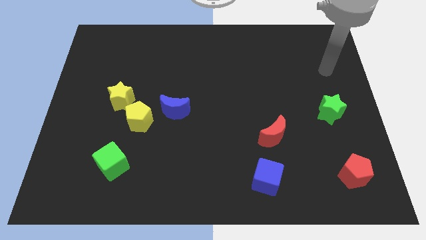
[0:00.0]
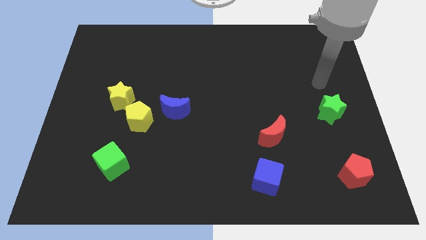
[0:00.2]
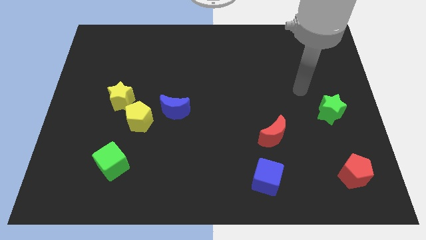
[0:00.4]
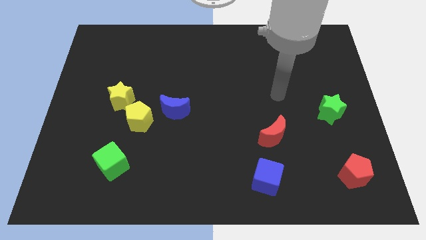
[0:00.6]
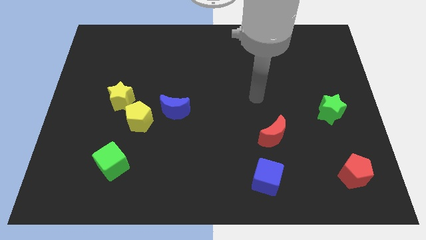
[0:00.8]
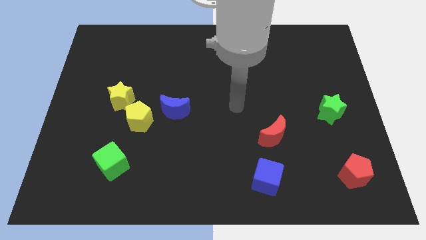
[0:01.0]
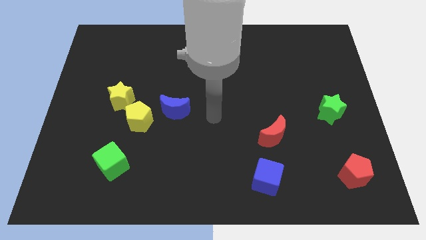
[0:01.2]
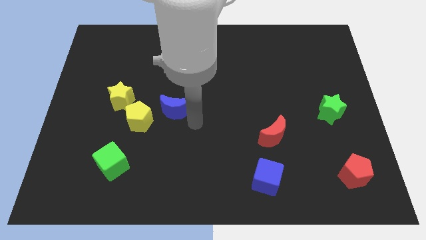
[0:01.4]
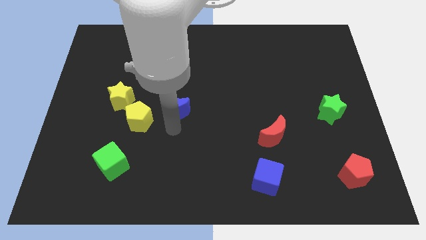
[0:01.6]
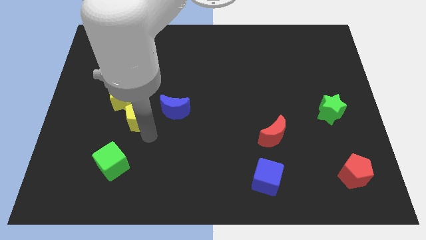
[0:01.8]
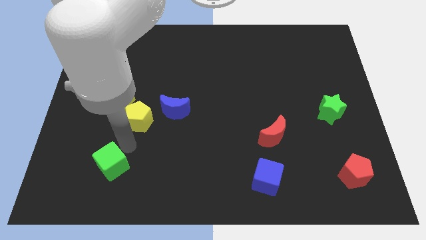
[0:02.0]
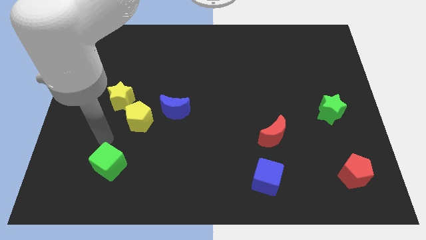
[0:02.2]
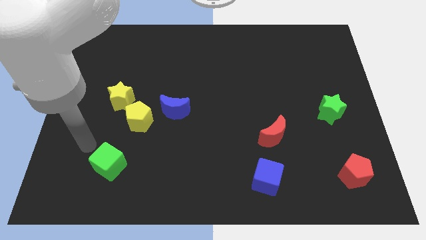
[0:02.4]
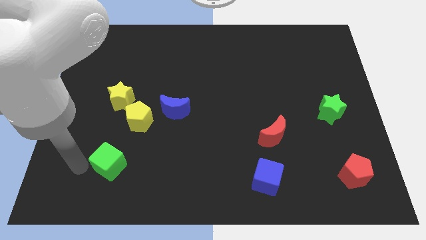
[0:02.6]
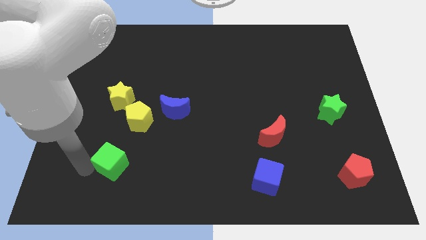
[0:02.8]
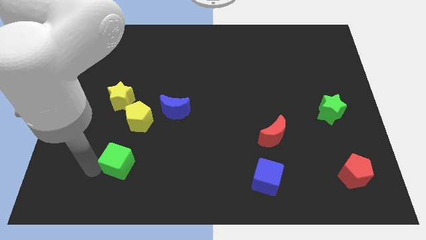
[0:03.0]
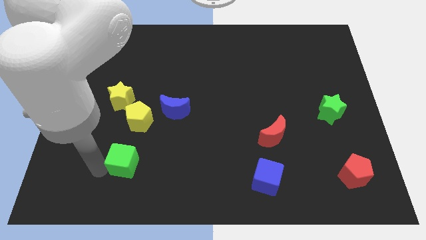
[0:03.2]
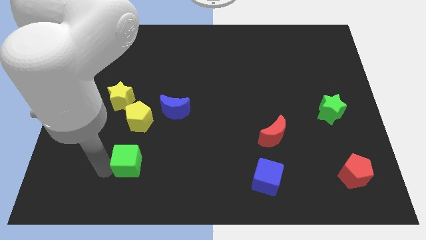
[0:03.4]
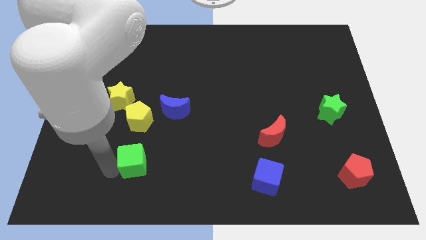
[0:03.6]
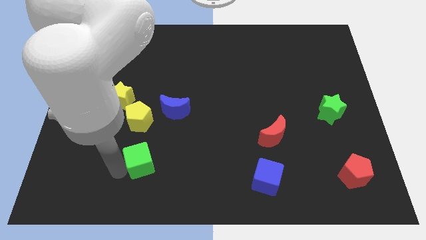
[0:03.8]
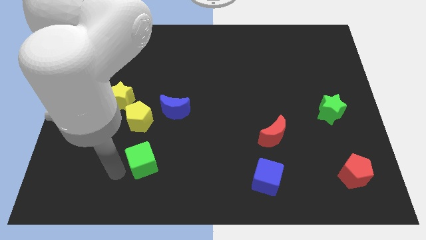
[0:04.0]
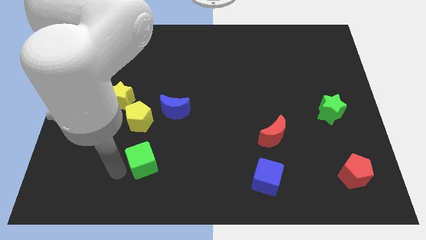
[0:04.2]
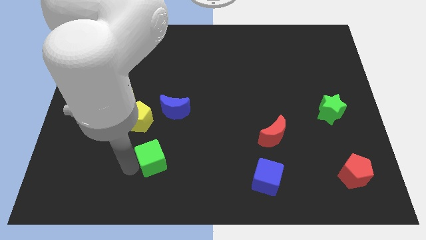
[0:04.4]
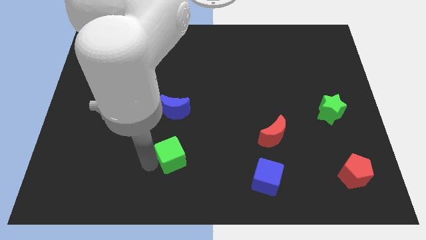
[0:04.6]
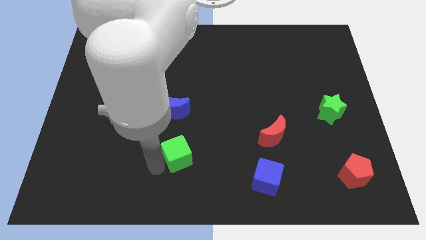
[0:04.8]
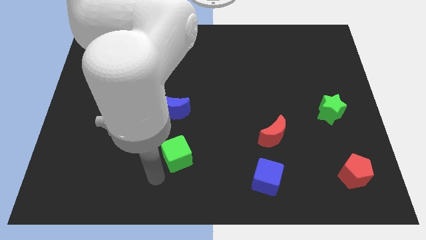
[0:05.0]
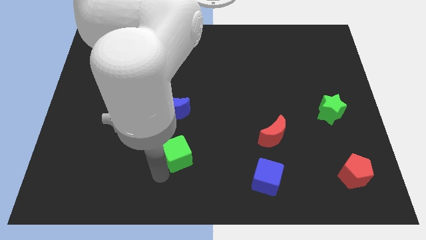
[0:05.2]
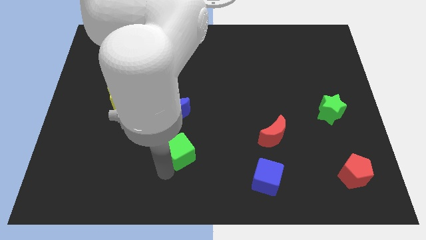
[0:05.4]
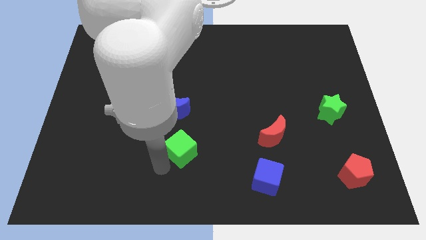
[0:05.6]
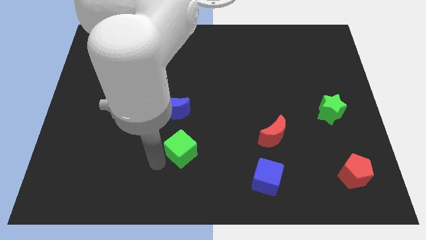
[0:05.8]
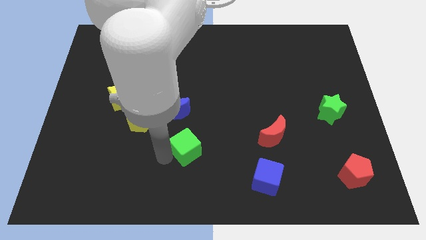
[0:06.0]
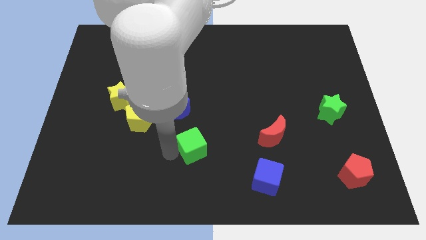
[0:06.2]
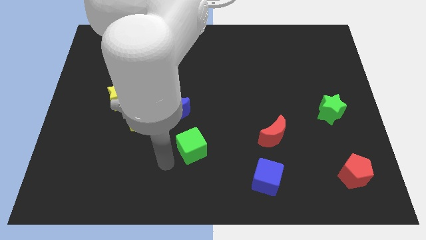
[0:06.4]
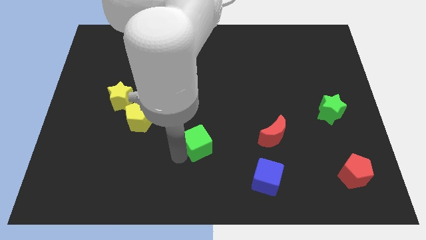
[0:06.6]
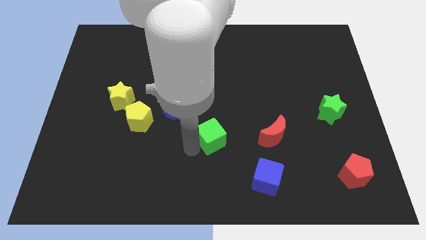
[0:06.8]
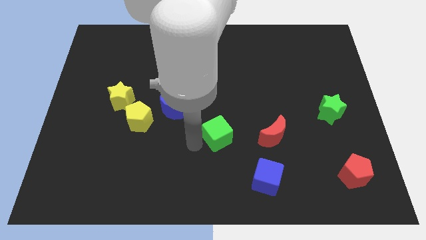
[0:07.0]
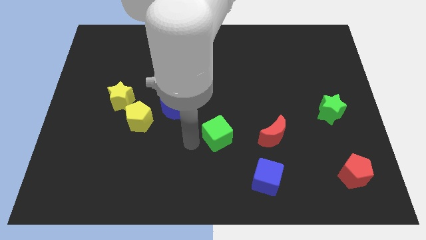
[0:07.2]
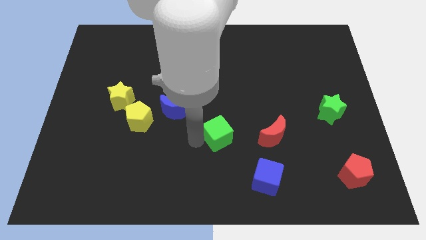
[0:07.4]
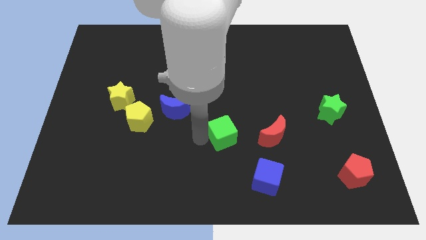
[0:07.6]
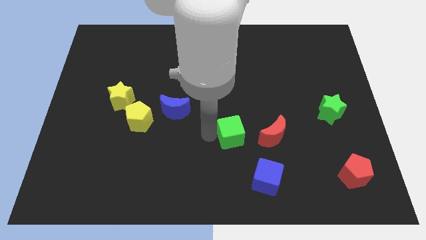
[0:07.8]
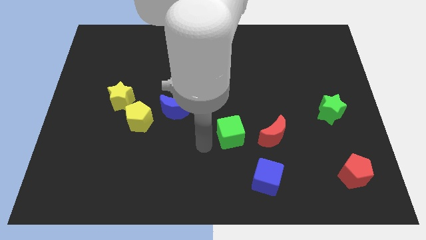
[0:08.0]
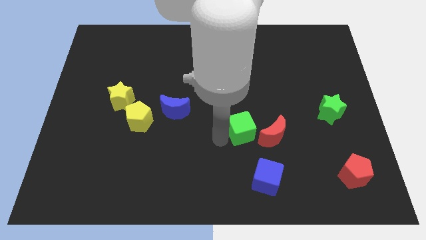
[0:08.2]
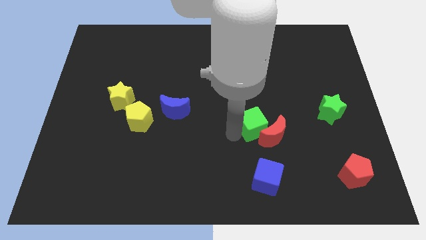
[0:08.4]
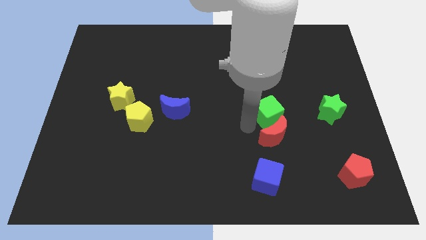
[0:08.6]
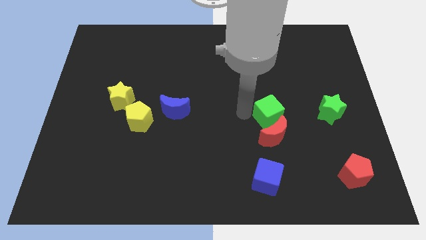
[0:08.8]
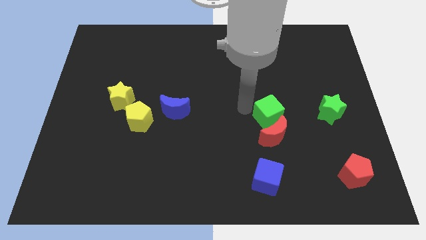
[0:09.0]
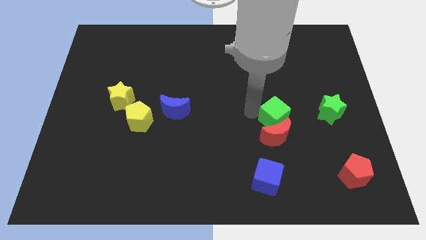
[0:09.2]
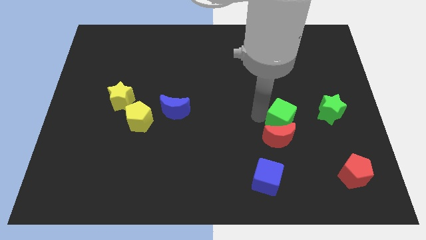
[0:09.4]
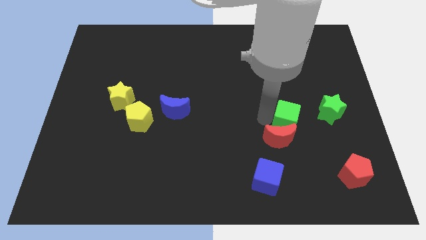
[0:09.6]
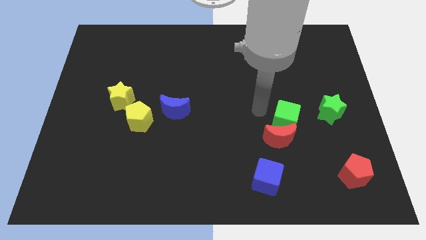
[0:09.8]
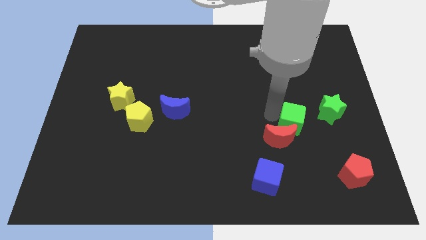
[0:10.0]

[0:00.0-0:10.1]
slide the green cube to the bottom left side of the green star

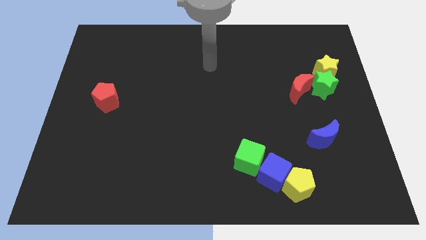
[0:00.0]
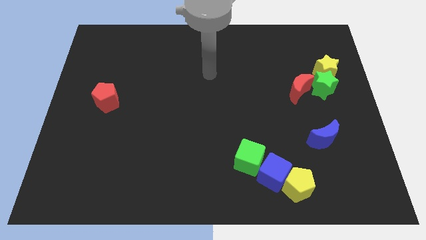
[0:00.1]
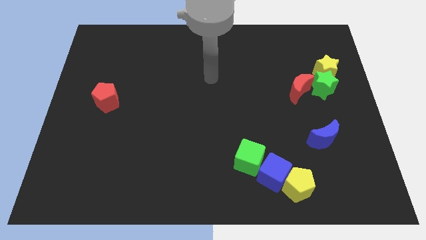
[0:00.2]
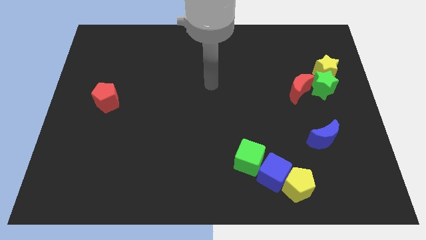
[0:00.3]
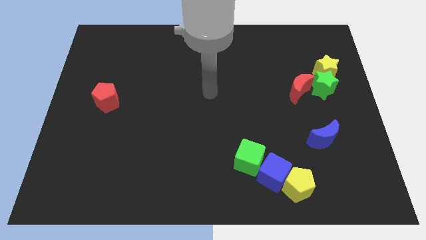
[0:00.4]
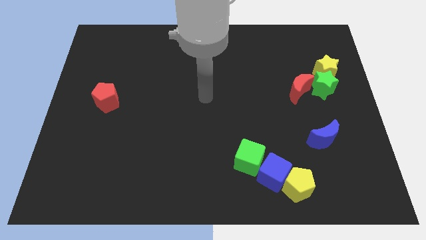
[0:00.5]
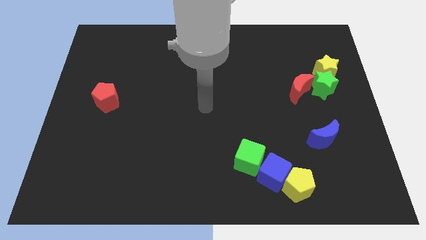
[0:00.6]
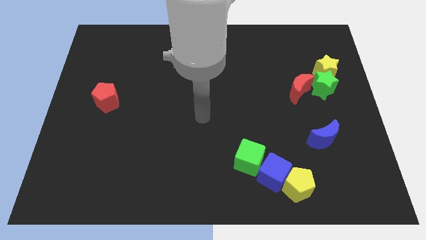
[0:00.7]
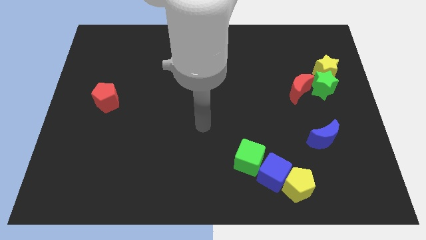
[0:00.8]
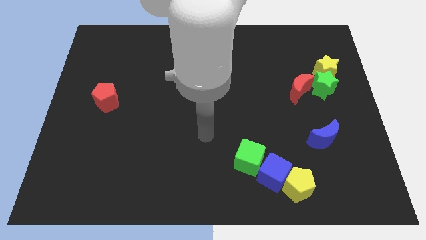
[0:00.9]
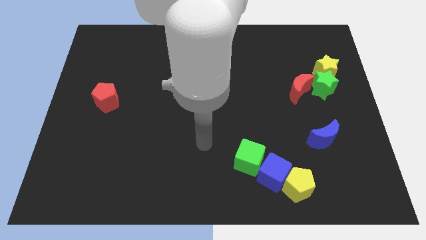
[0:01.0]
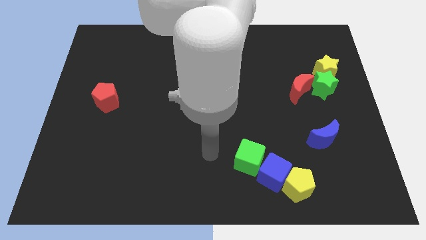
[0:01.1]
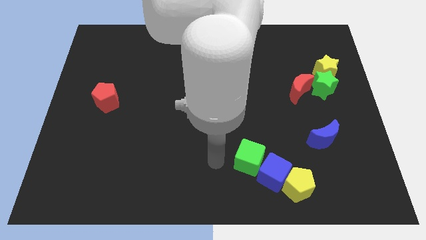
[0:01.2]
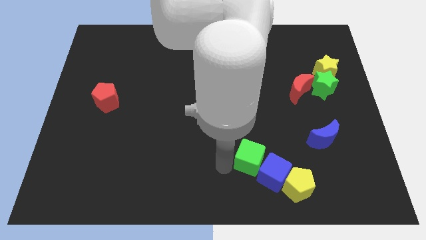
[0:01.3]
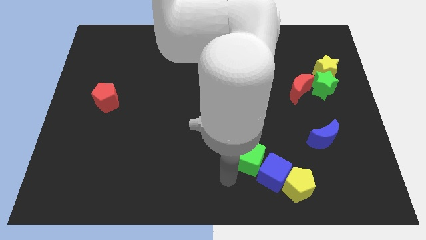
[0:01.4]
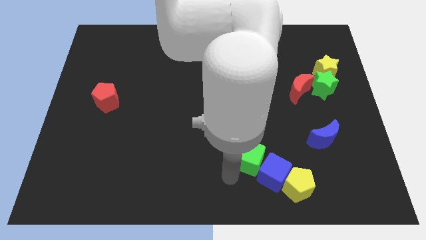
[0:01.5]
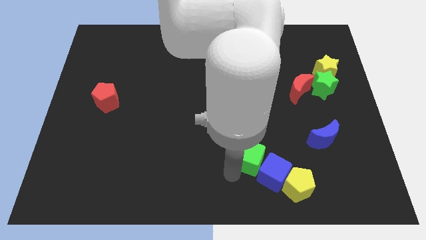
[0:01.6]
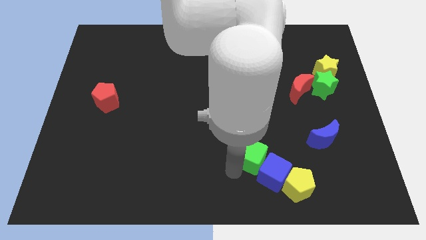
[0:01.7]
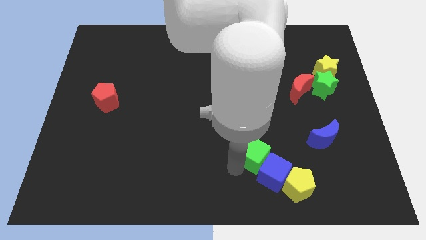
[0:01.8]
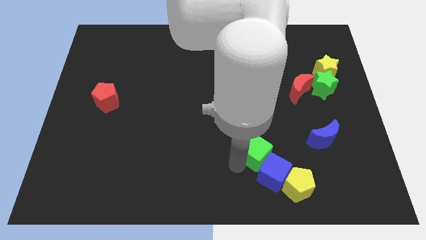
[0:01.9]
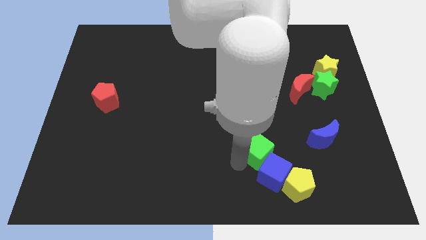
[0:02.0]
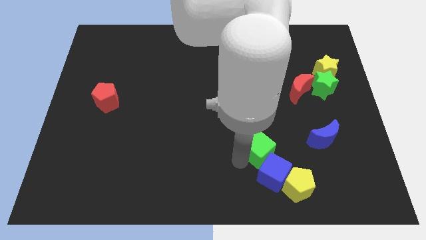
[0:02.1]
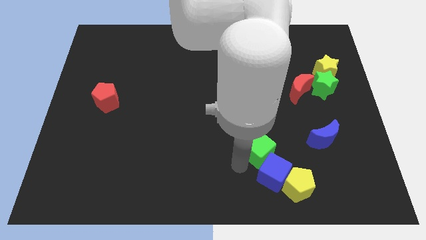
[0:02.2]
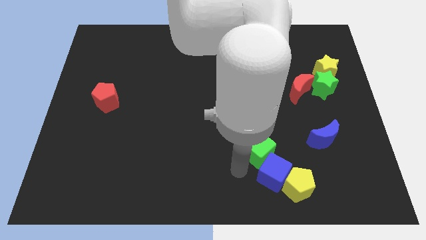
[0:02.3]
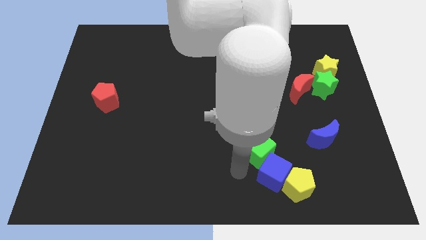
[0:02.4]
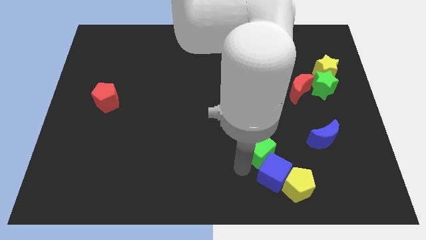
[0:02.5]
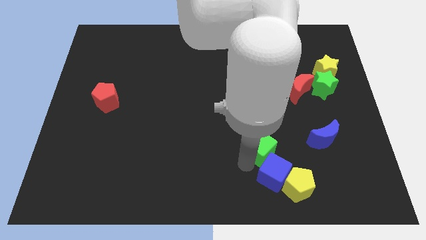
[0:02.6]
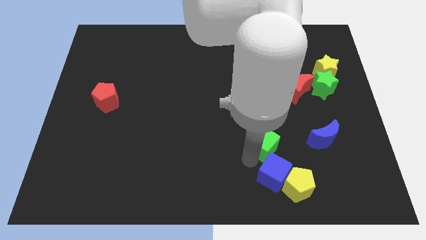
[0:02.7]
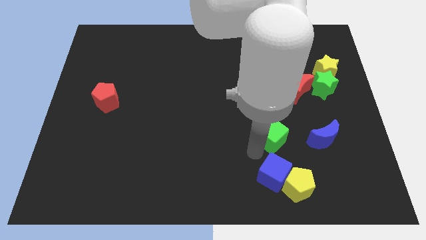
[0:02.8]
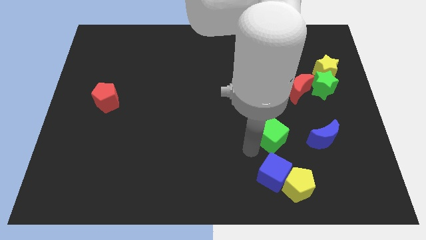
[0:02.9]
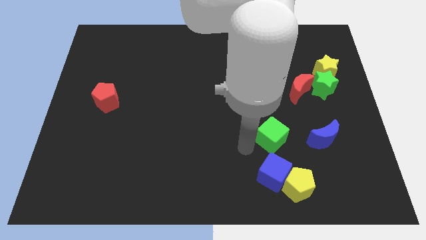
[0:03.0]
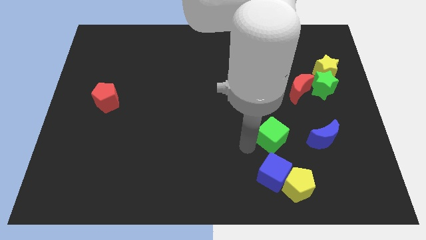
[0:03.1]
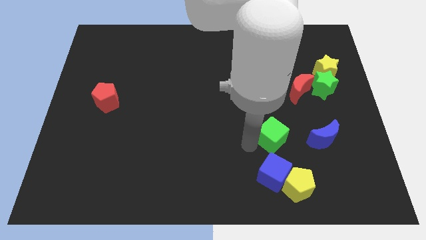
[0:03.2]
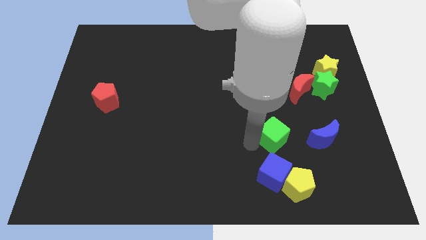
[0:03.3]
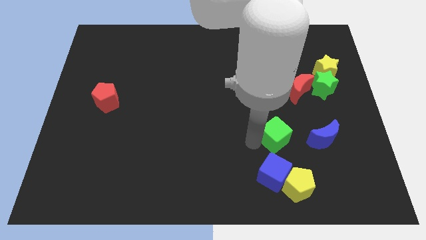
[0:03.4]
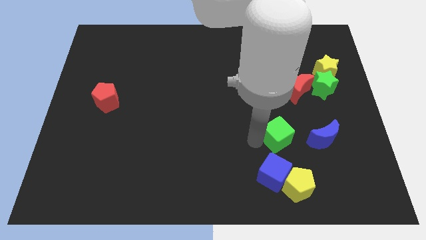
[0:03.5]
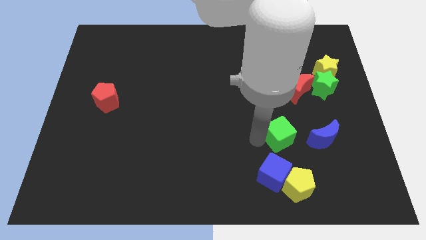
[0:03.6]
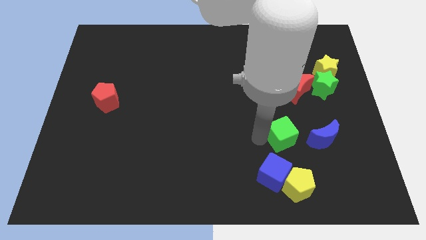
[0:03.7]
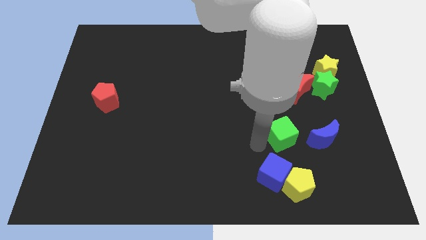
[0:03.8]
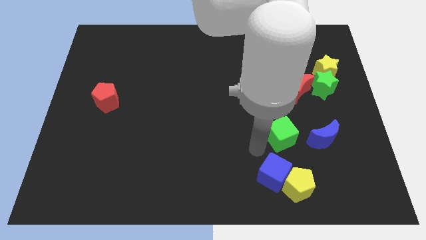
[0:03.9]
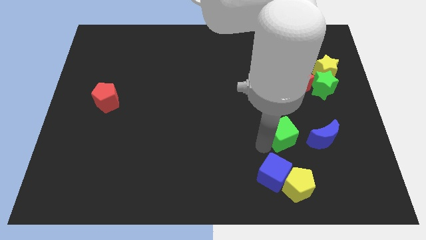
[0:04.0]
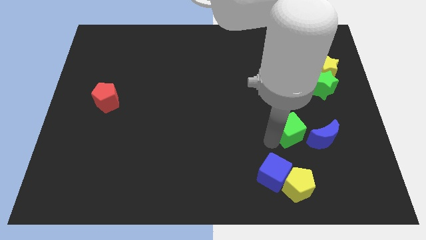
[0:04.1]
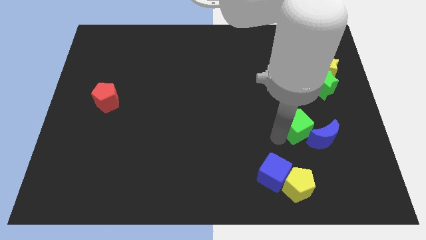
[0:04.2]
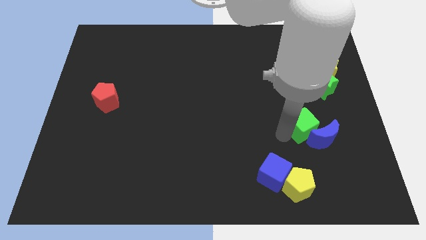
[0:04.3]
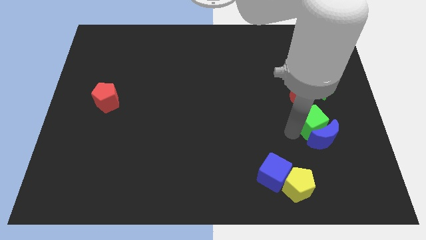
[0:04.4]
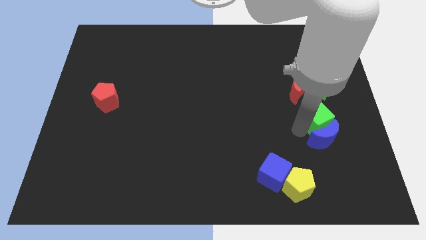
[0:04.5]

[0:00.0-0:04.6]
push the green cube to the bottom right side of the red moon
